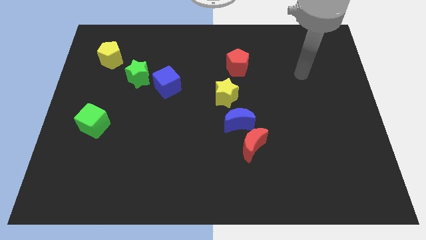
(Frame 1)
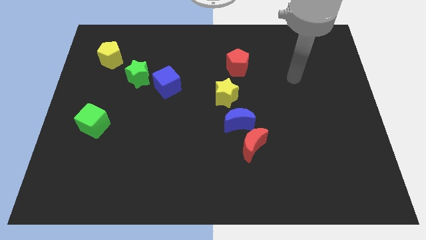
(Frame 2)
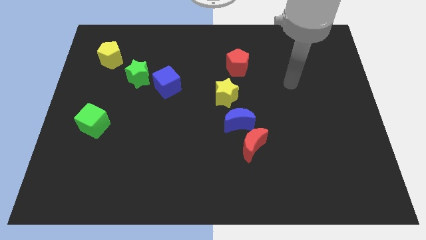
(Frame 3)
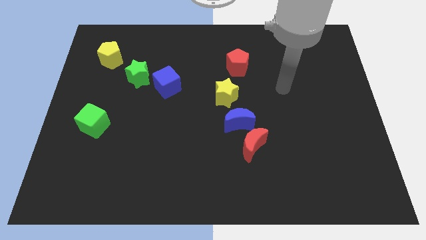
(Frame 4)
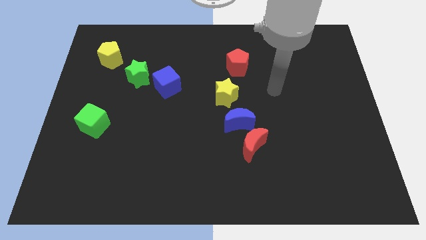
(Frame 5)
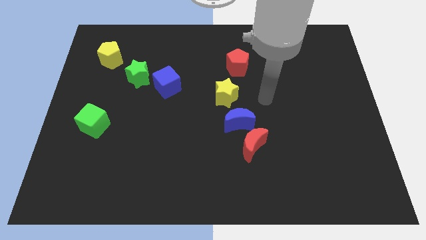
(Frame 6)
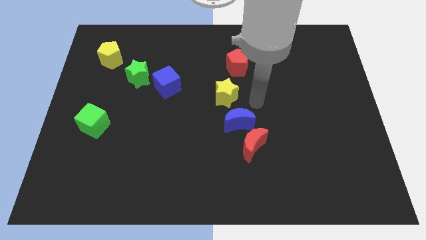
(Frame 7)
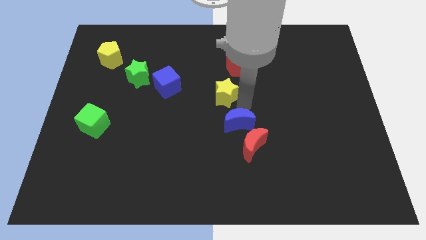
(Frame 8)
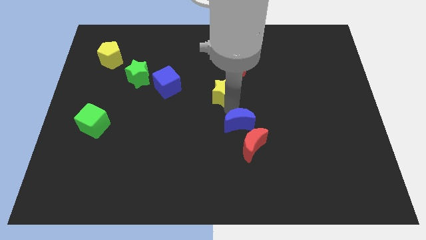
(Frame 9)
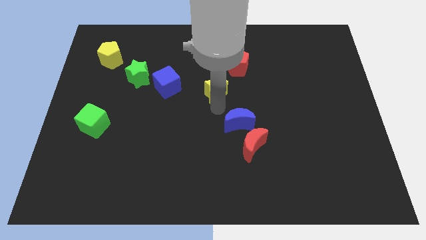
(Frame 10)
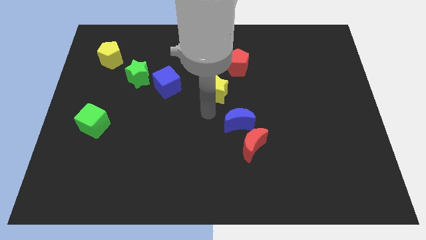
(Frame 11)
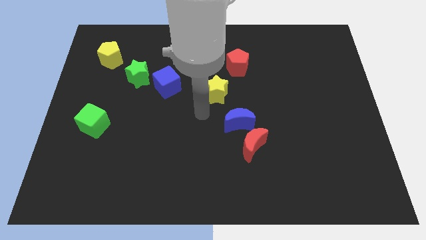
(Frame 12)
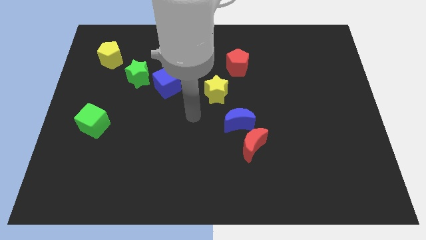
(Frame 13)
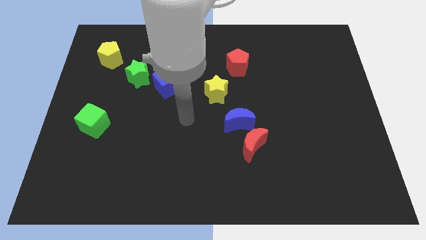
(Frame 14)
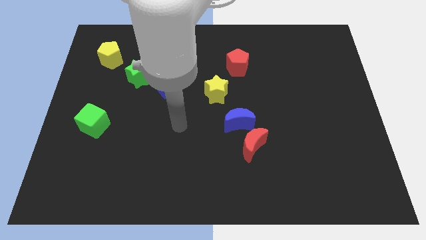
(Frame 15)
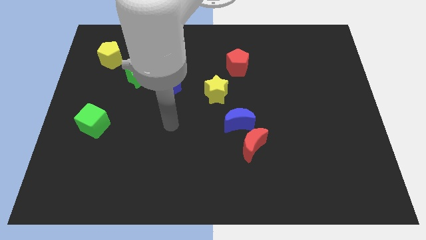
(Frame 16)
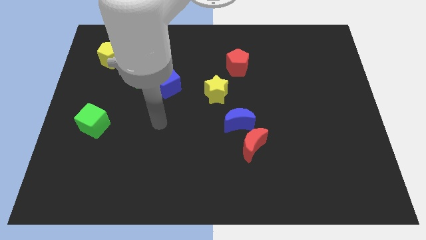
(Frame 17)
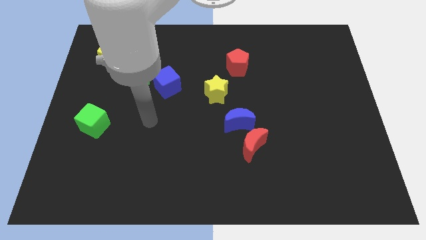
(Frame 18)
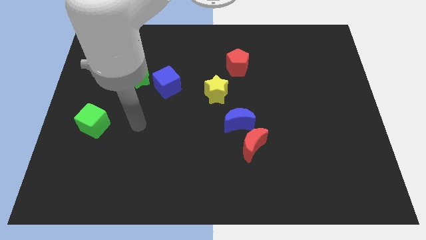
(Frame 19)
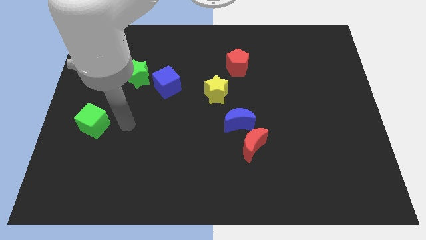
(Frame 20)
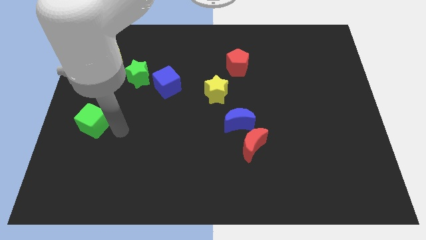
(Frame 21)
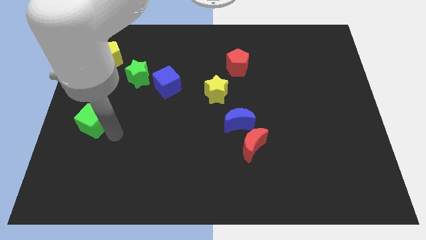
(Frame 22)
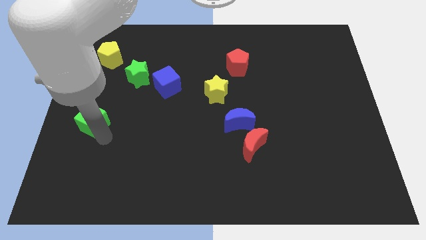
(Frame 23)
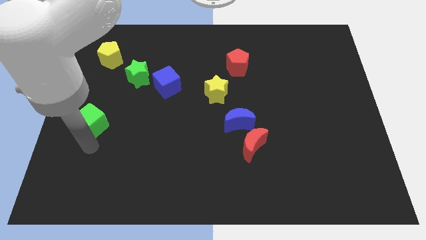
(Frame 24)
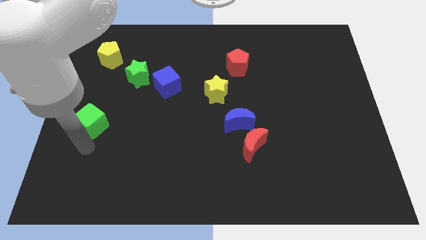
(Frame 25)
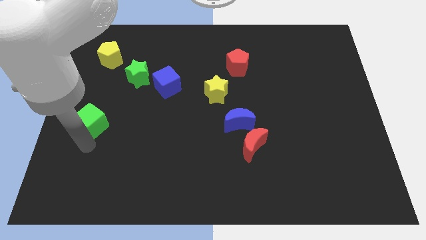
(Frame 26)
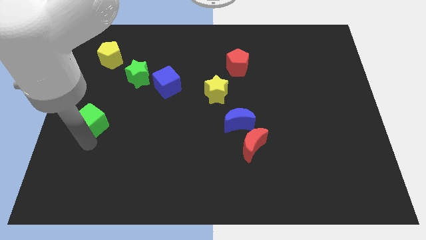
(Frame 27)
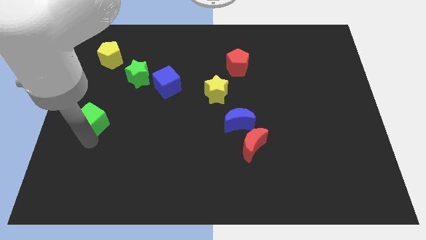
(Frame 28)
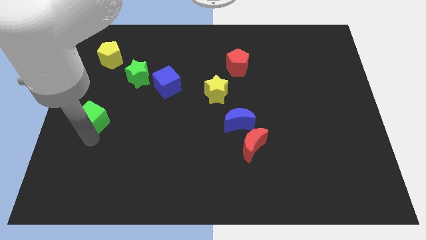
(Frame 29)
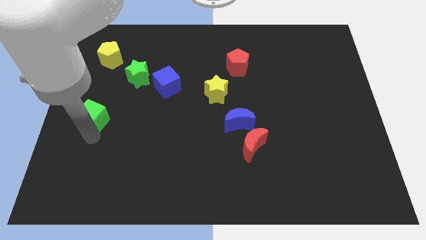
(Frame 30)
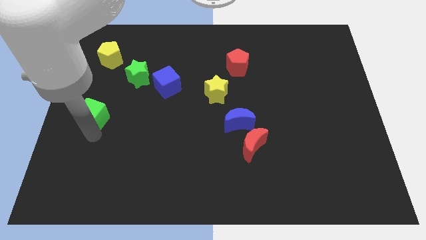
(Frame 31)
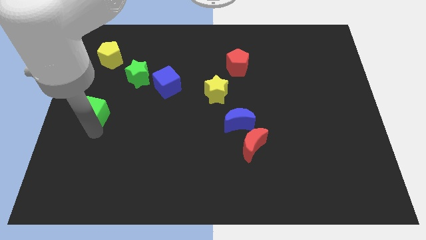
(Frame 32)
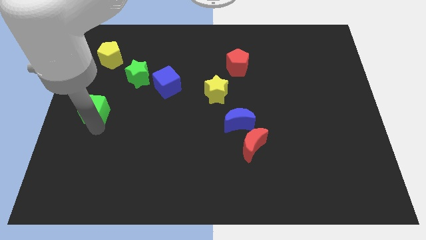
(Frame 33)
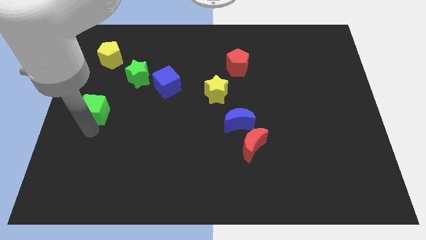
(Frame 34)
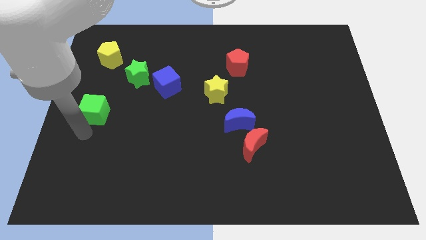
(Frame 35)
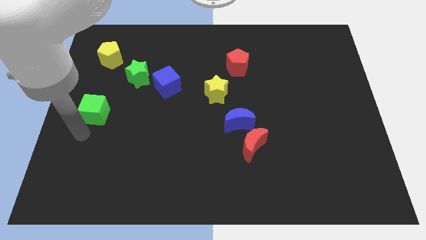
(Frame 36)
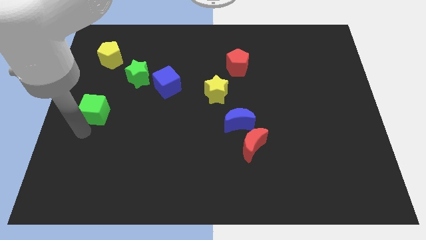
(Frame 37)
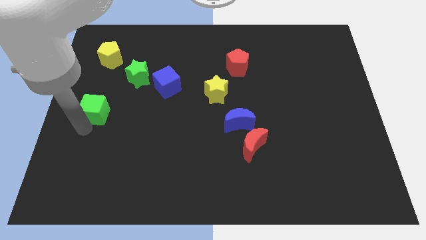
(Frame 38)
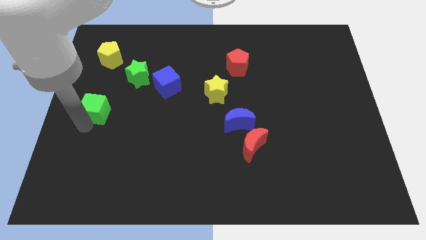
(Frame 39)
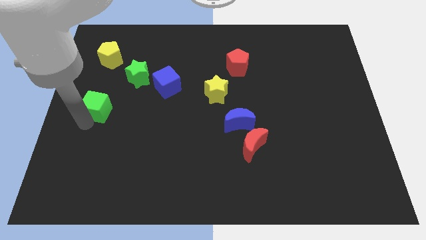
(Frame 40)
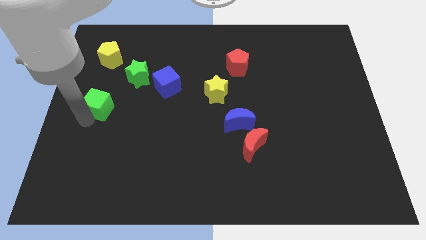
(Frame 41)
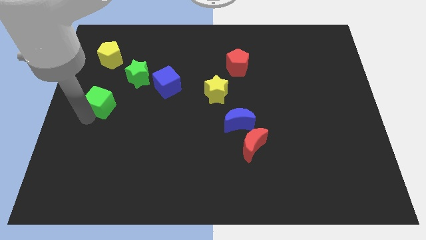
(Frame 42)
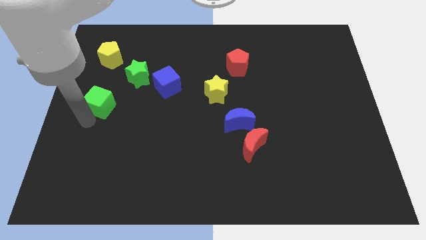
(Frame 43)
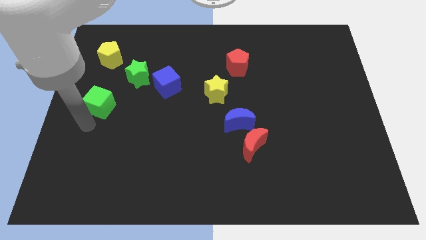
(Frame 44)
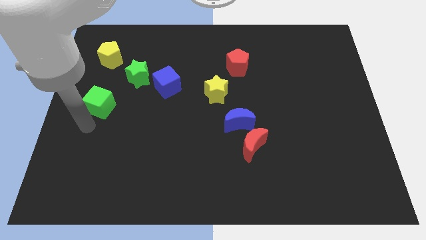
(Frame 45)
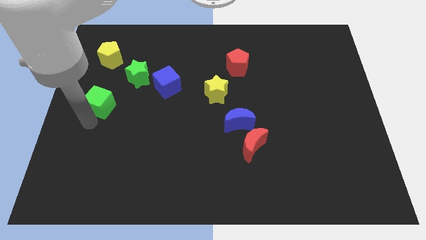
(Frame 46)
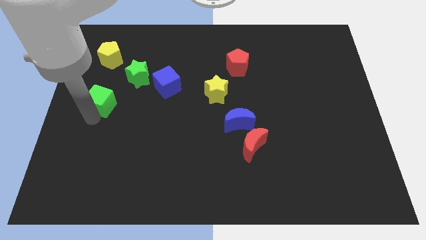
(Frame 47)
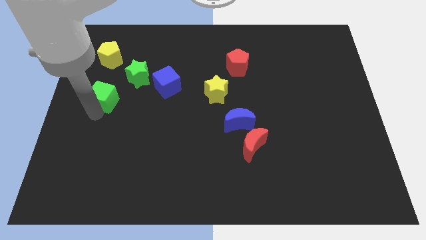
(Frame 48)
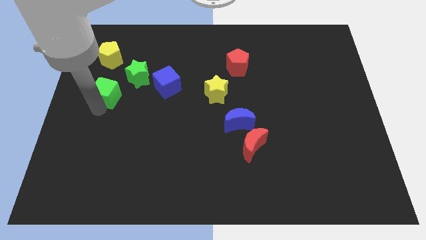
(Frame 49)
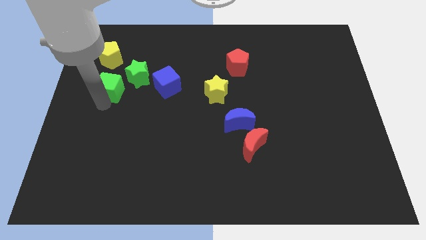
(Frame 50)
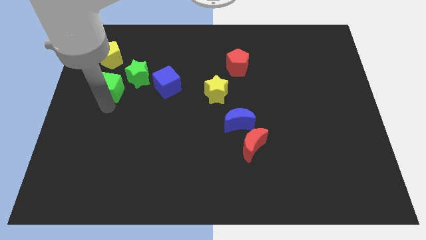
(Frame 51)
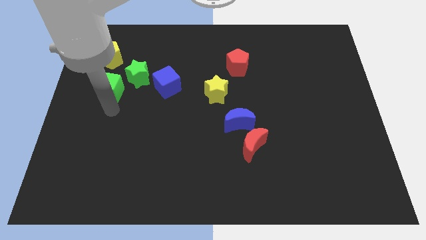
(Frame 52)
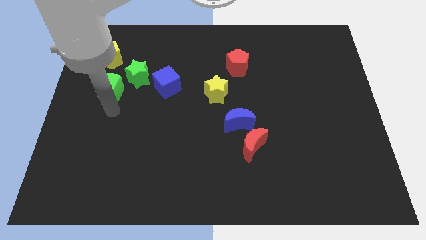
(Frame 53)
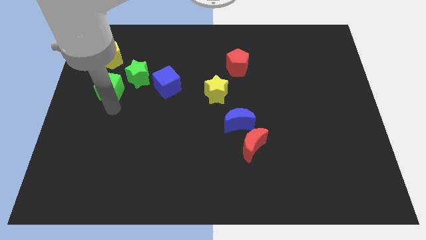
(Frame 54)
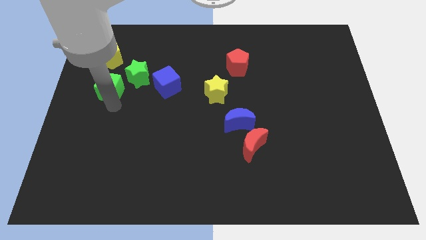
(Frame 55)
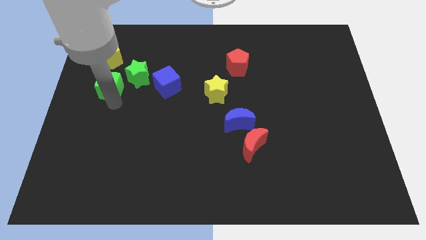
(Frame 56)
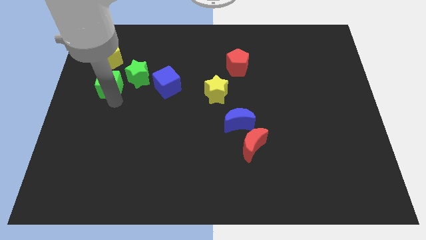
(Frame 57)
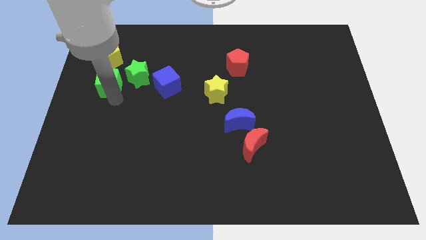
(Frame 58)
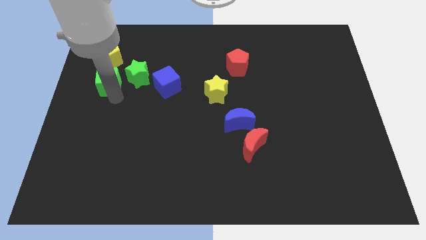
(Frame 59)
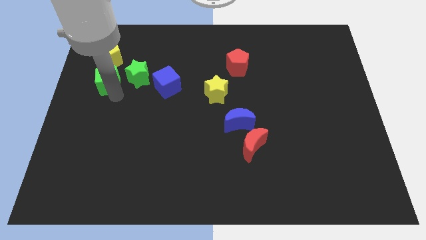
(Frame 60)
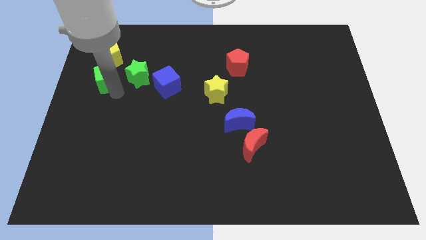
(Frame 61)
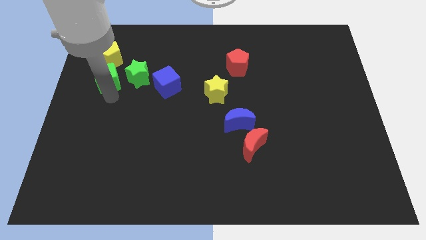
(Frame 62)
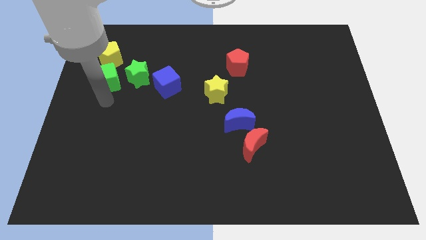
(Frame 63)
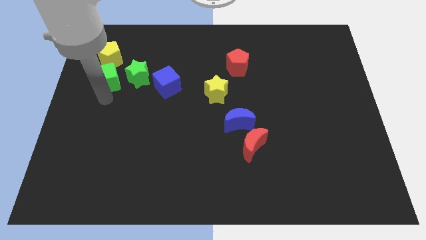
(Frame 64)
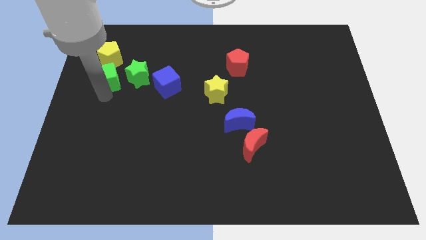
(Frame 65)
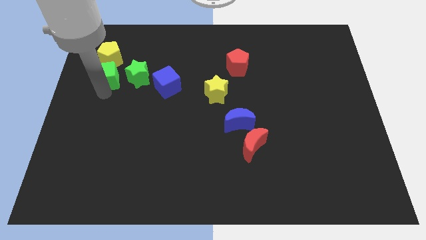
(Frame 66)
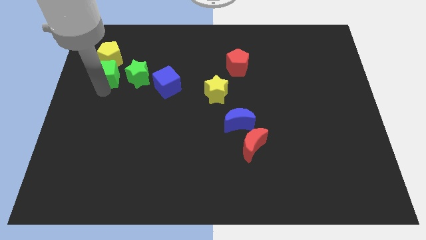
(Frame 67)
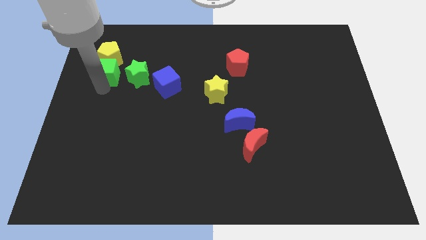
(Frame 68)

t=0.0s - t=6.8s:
move the green cube to the yellow pentagon

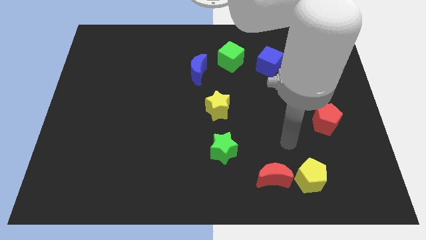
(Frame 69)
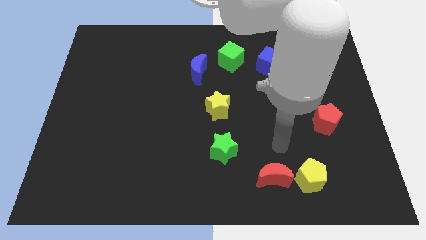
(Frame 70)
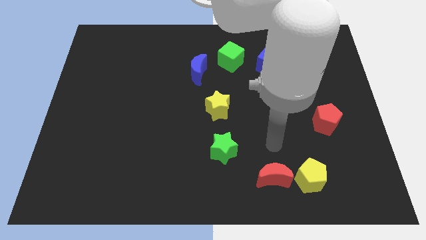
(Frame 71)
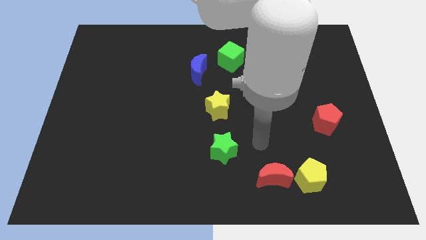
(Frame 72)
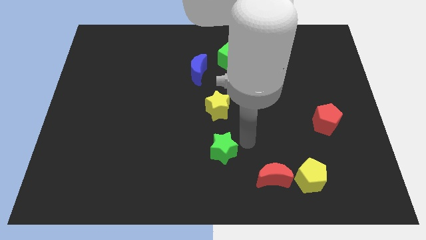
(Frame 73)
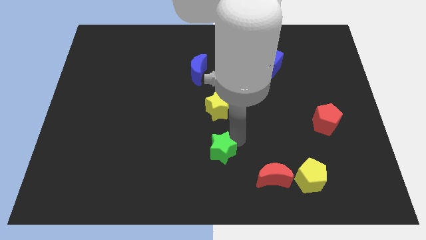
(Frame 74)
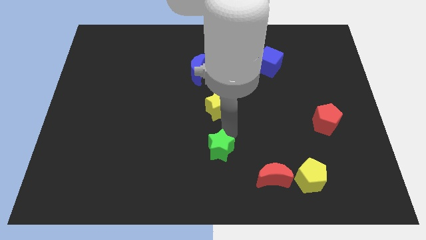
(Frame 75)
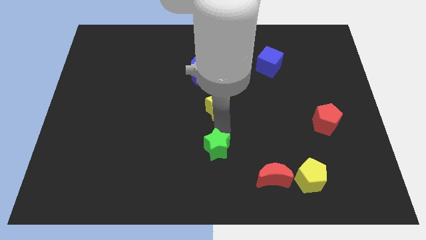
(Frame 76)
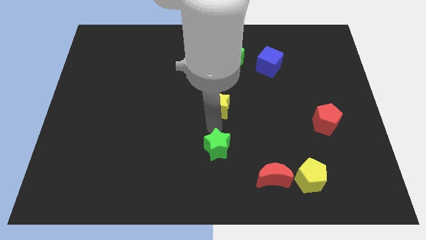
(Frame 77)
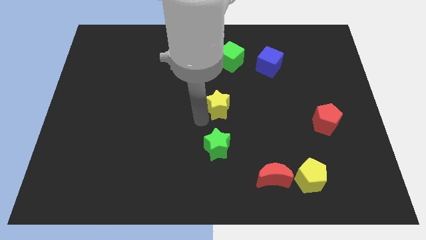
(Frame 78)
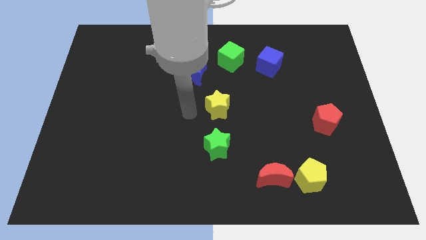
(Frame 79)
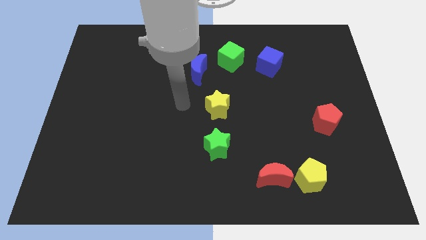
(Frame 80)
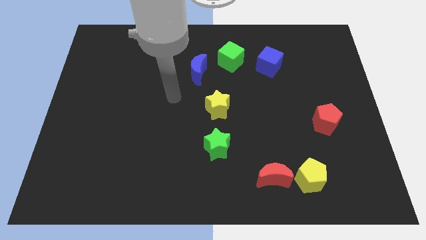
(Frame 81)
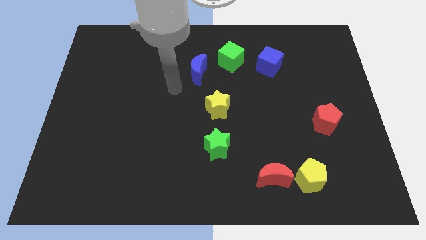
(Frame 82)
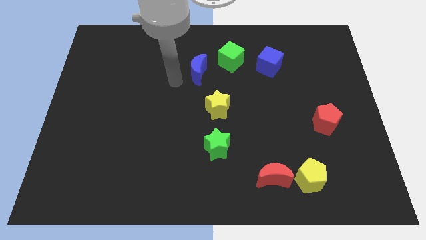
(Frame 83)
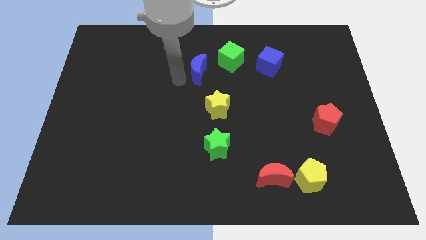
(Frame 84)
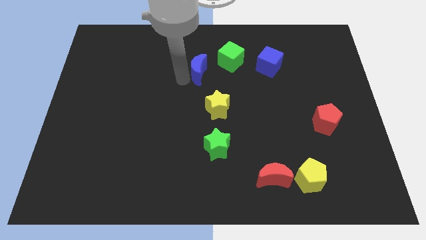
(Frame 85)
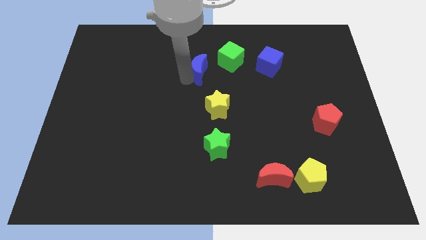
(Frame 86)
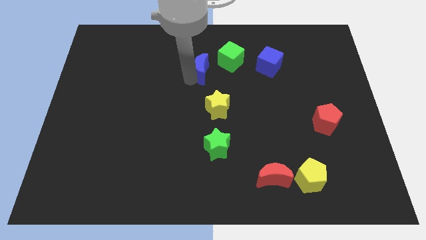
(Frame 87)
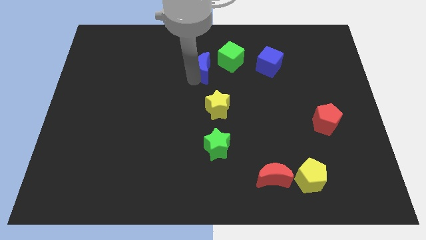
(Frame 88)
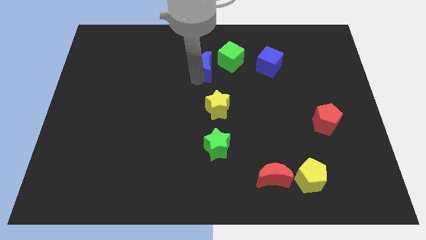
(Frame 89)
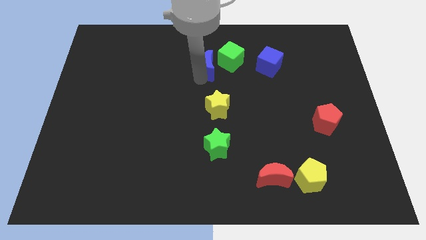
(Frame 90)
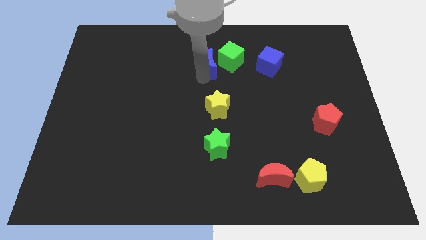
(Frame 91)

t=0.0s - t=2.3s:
move the blue moon towards the green cube
